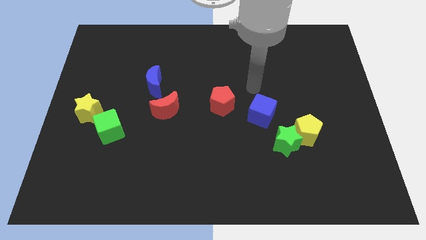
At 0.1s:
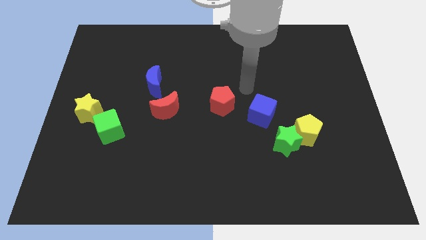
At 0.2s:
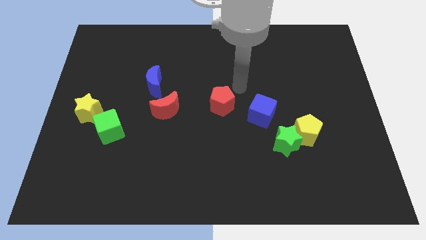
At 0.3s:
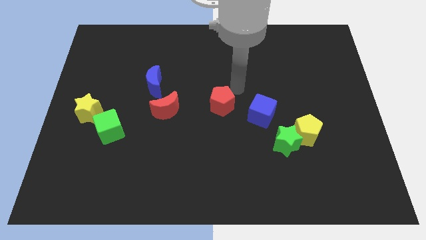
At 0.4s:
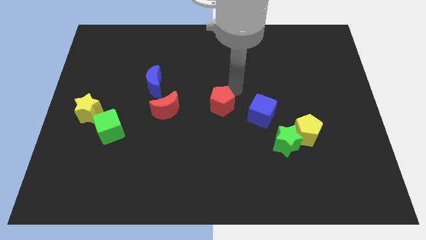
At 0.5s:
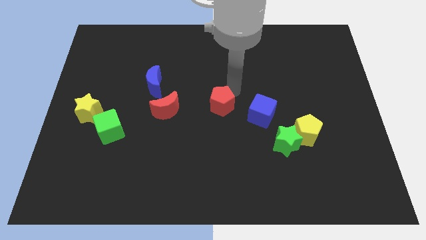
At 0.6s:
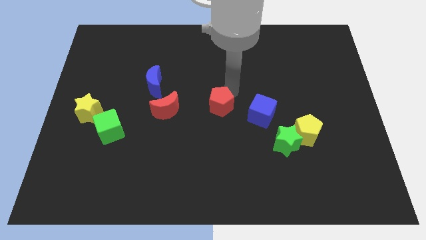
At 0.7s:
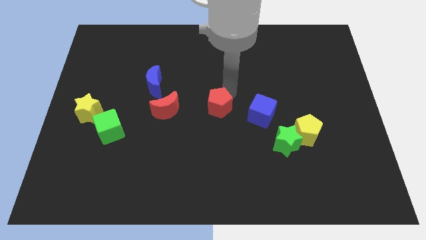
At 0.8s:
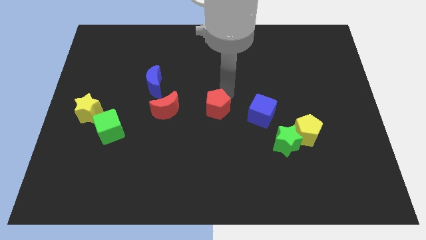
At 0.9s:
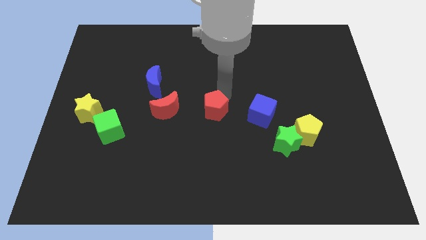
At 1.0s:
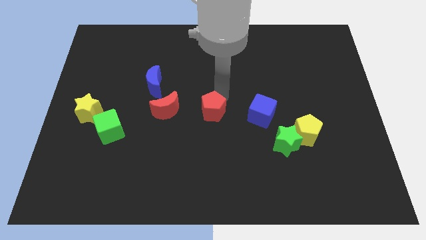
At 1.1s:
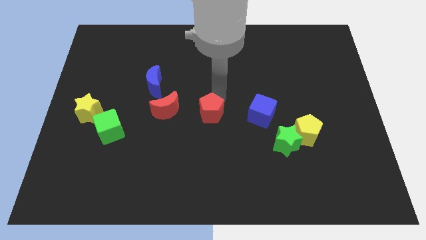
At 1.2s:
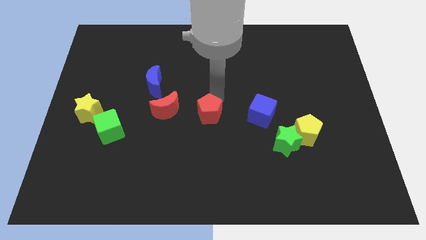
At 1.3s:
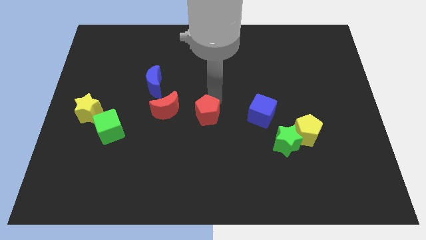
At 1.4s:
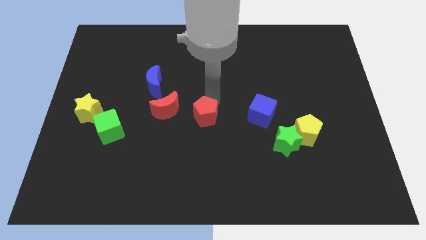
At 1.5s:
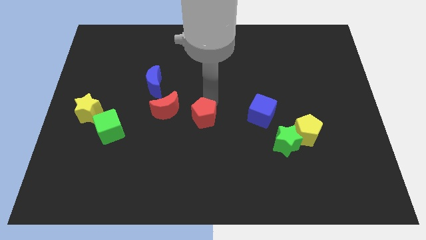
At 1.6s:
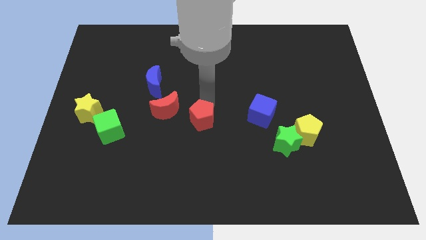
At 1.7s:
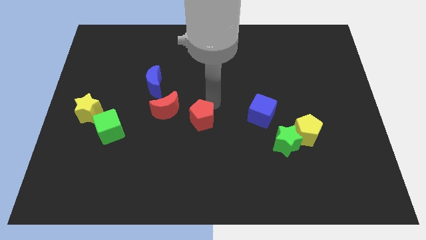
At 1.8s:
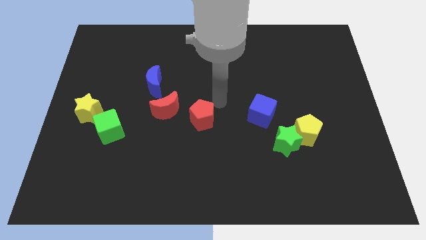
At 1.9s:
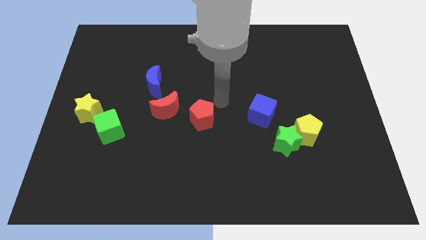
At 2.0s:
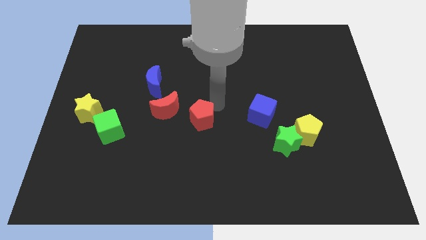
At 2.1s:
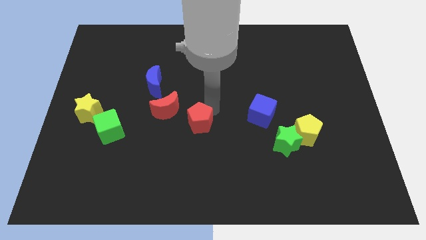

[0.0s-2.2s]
push the red pentagon a little down and to the left

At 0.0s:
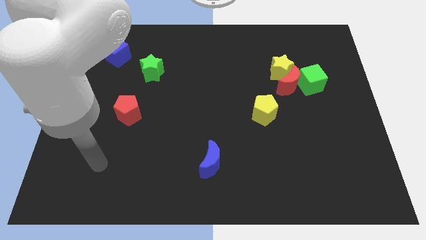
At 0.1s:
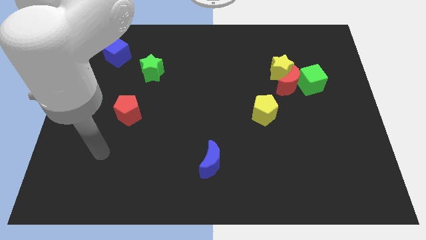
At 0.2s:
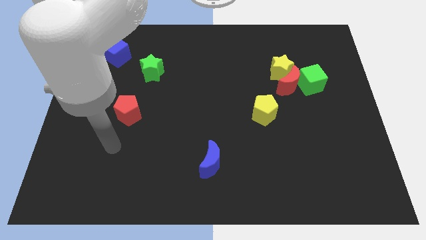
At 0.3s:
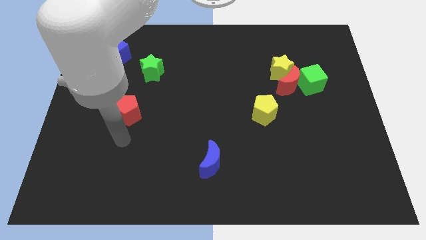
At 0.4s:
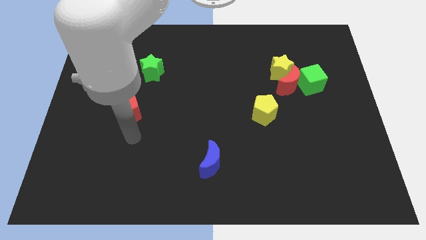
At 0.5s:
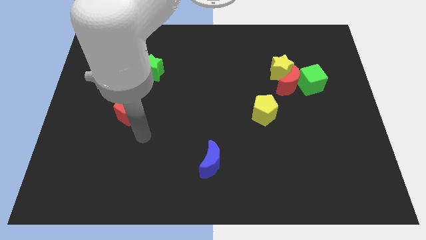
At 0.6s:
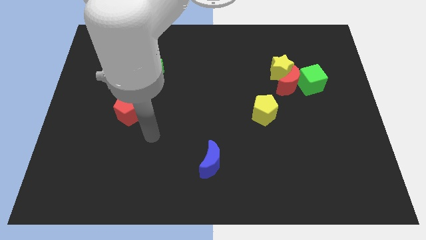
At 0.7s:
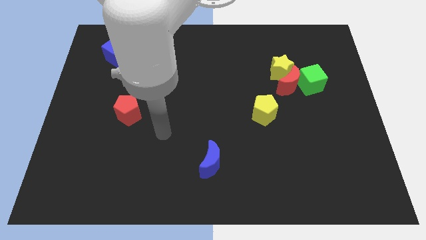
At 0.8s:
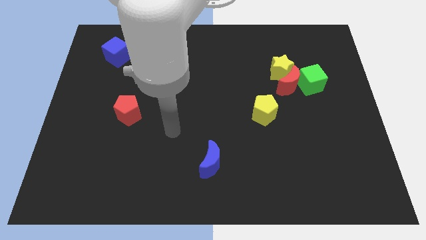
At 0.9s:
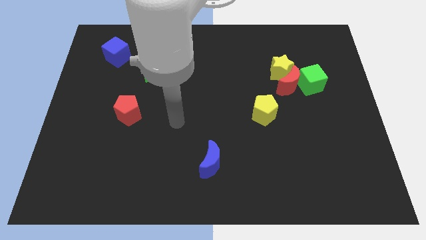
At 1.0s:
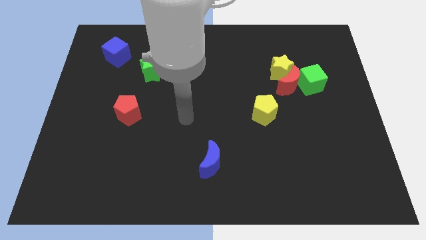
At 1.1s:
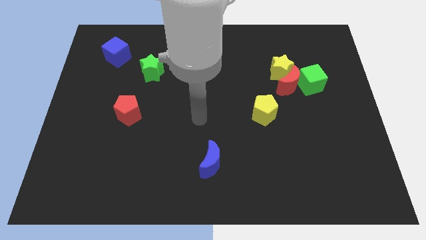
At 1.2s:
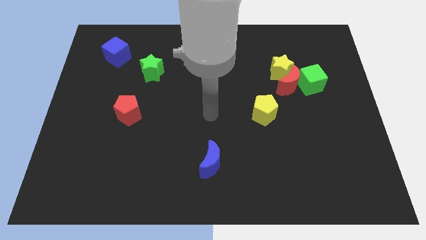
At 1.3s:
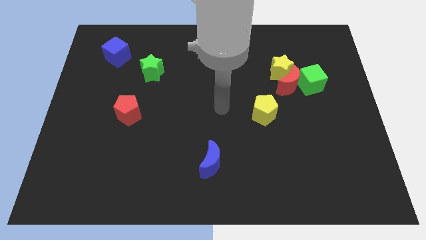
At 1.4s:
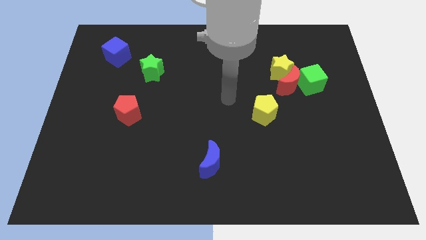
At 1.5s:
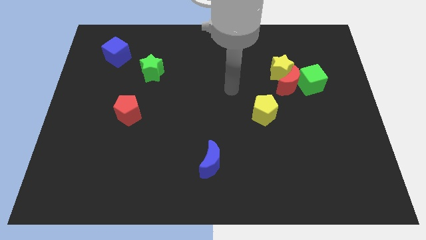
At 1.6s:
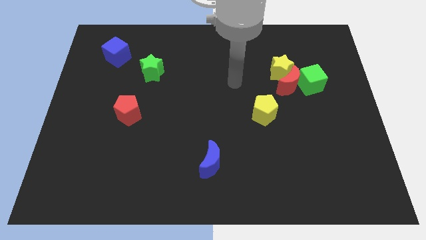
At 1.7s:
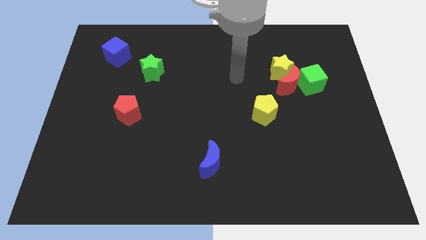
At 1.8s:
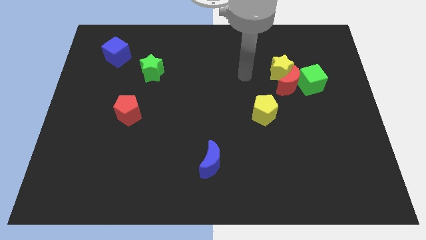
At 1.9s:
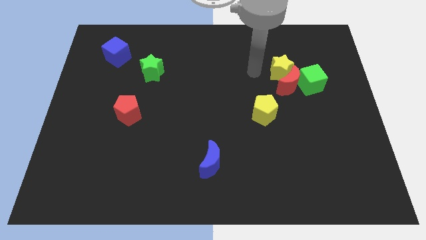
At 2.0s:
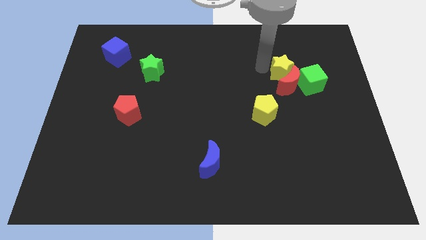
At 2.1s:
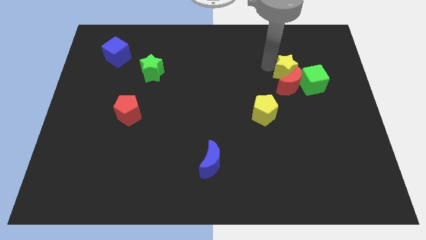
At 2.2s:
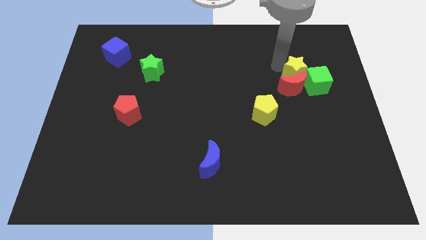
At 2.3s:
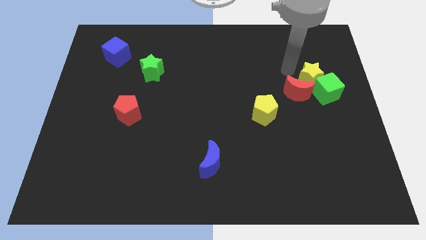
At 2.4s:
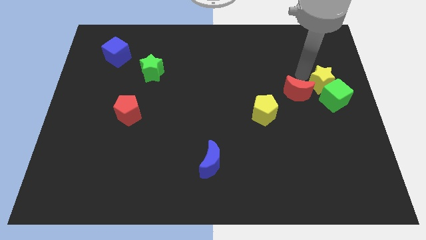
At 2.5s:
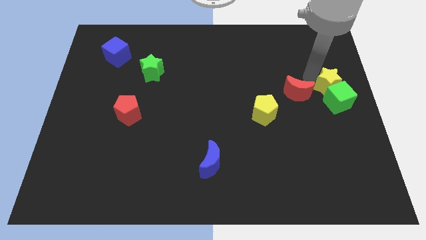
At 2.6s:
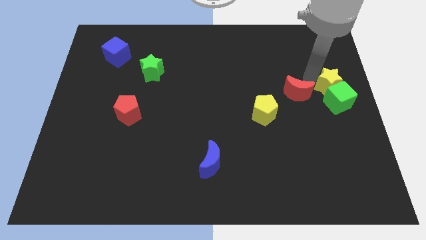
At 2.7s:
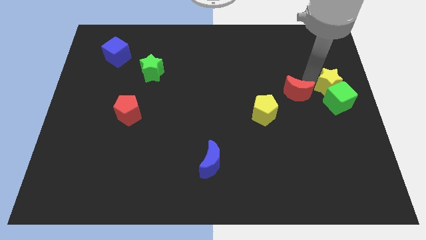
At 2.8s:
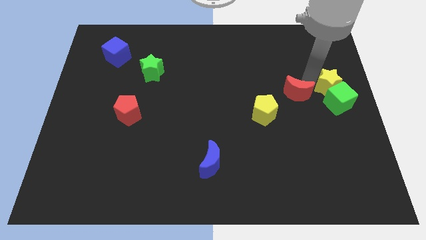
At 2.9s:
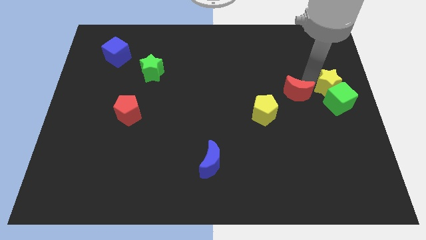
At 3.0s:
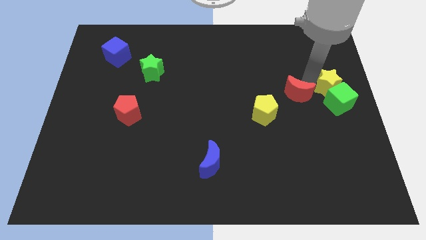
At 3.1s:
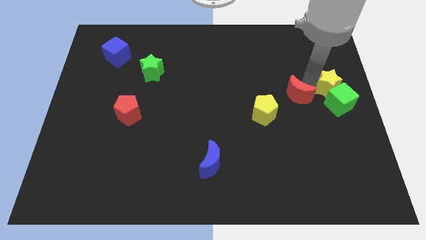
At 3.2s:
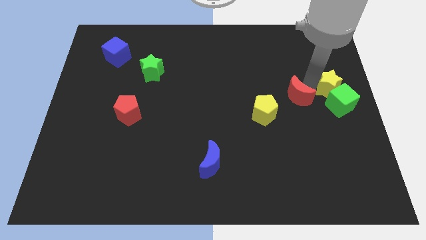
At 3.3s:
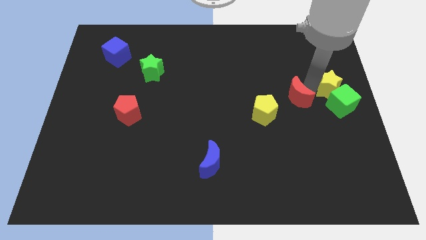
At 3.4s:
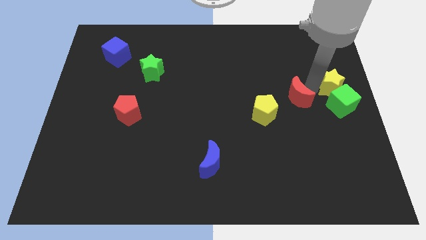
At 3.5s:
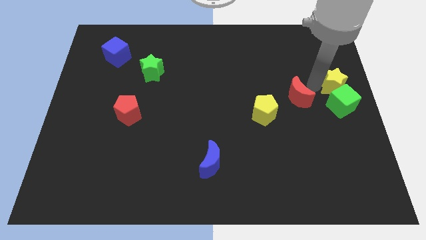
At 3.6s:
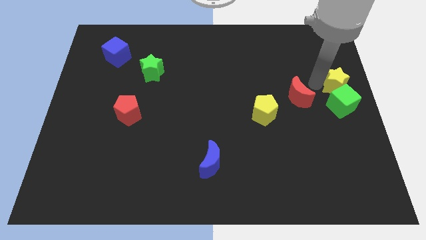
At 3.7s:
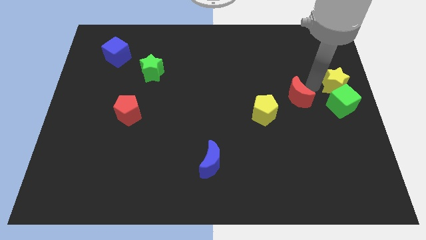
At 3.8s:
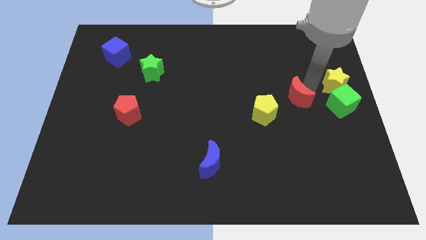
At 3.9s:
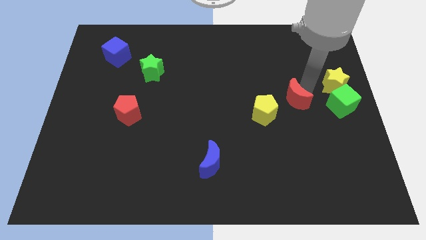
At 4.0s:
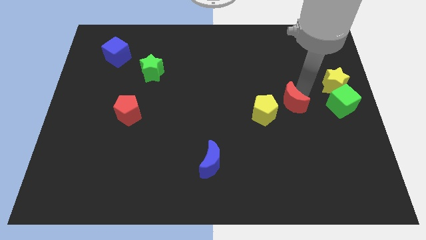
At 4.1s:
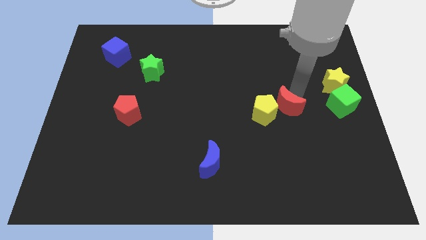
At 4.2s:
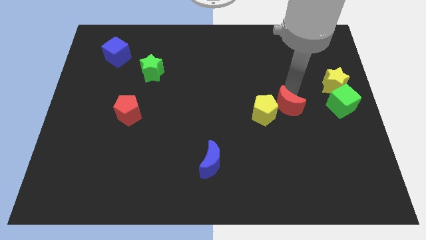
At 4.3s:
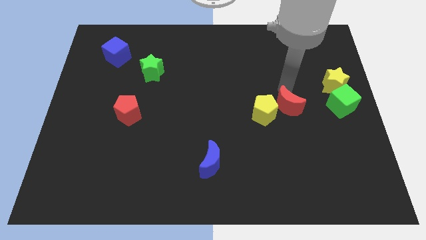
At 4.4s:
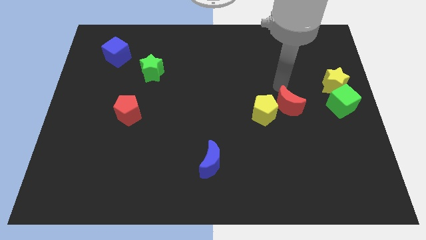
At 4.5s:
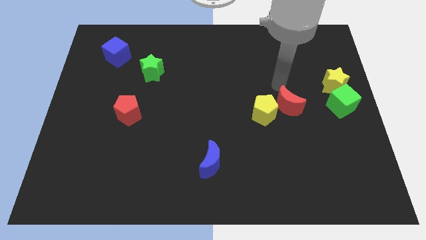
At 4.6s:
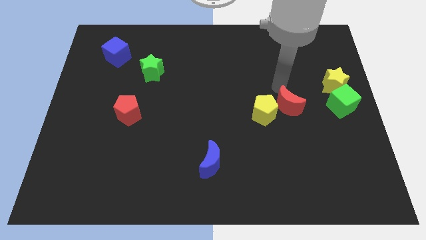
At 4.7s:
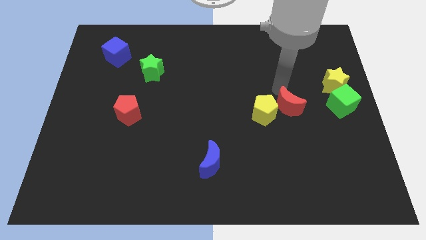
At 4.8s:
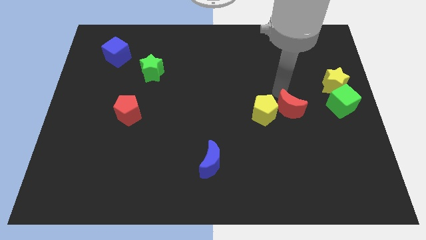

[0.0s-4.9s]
slide the red moon down slightly

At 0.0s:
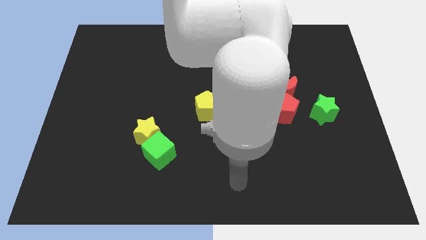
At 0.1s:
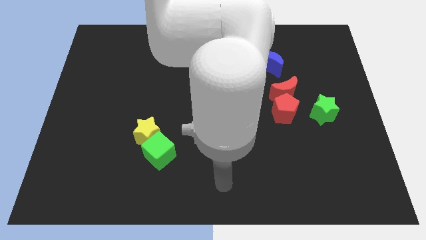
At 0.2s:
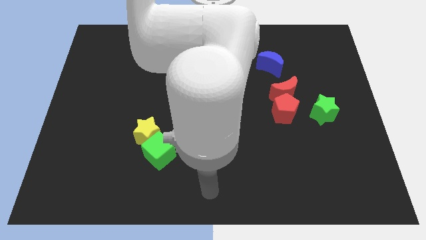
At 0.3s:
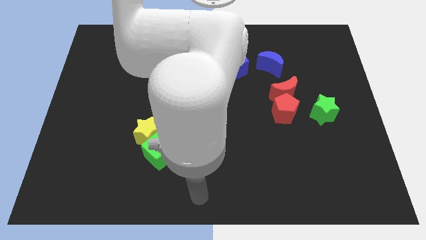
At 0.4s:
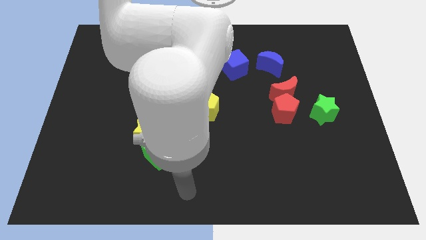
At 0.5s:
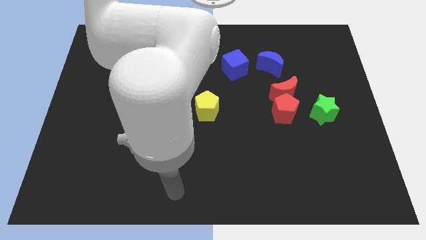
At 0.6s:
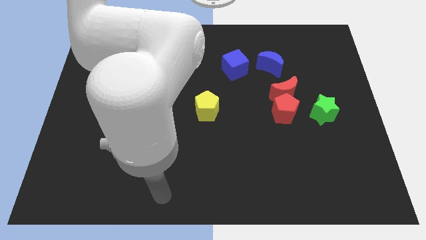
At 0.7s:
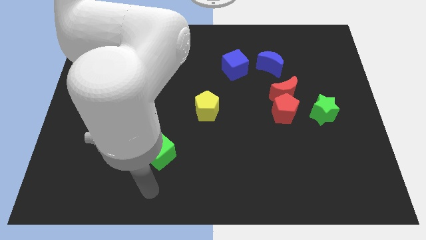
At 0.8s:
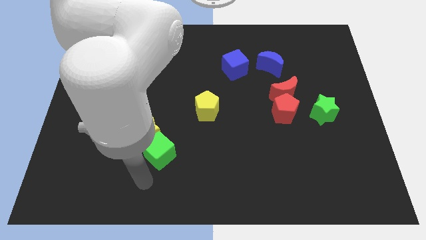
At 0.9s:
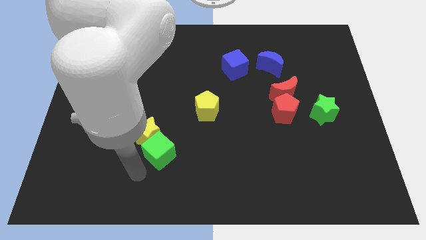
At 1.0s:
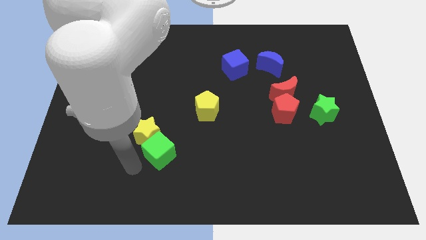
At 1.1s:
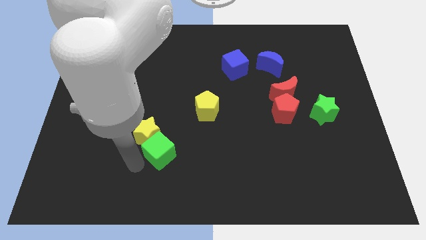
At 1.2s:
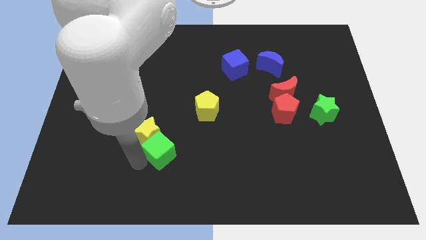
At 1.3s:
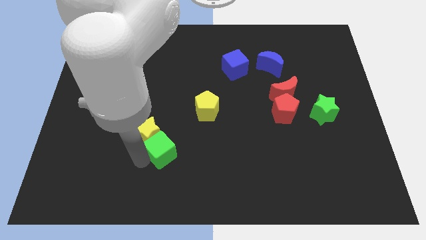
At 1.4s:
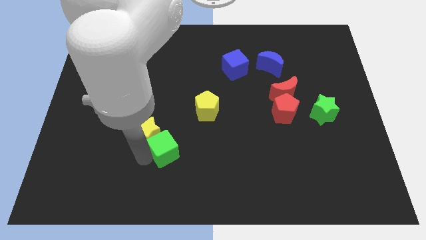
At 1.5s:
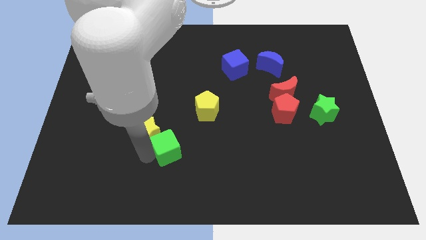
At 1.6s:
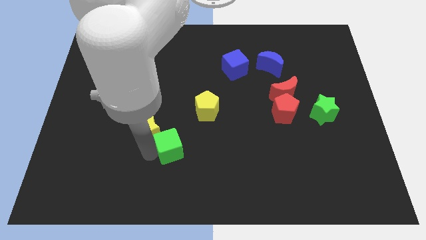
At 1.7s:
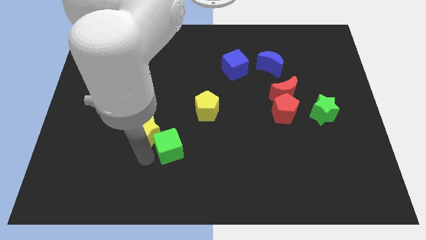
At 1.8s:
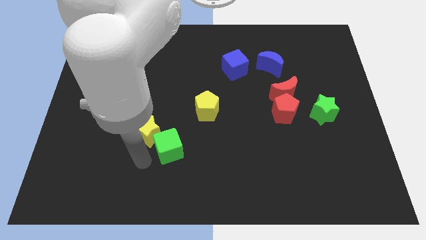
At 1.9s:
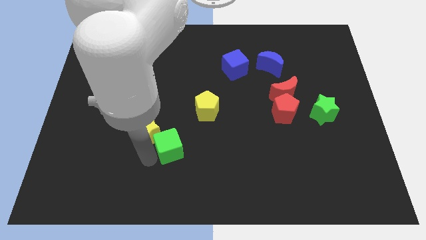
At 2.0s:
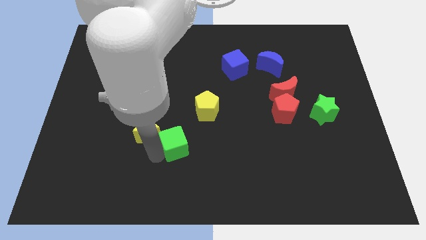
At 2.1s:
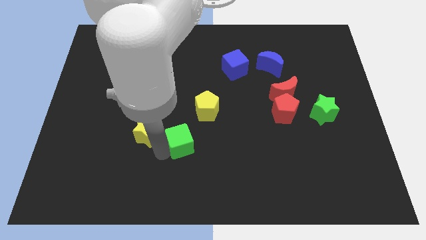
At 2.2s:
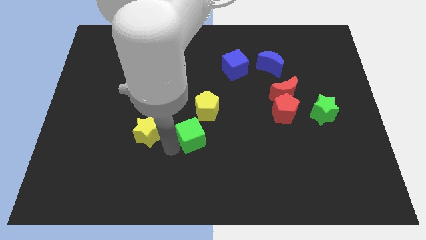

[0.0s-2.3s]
move the green cube upwards and to the right diagonally somewhat
